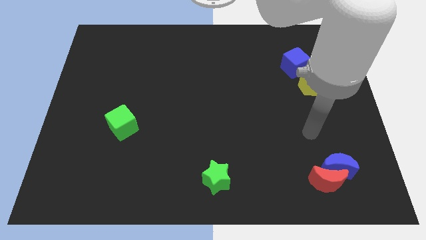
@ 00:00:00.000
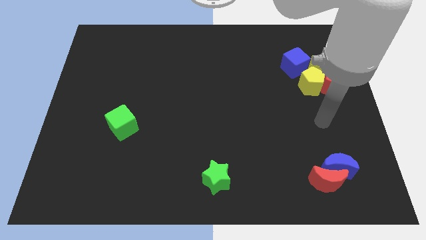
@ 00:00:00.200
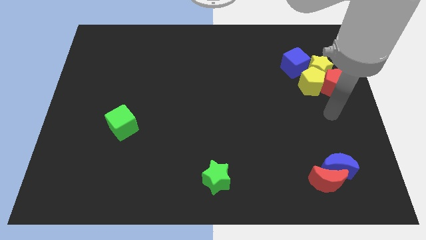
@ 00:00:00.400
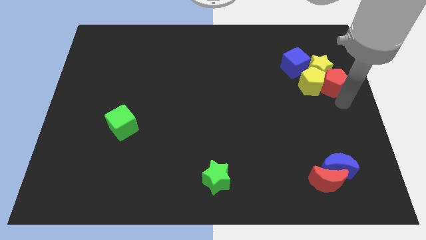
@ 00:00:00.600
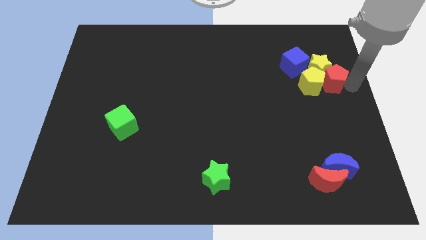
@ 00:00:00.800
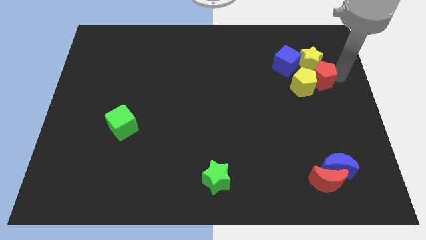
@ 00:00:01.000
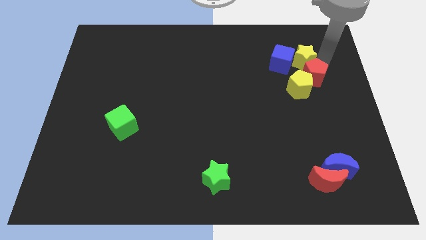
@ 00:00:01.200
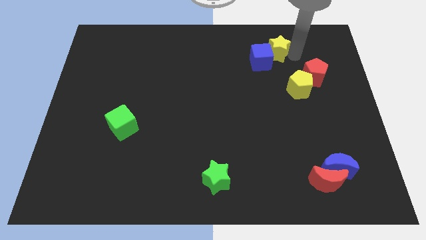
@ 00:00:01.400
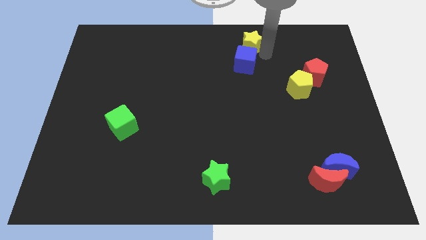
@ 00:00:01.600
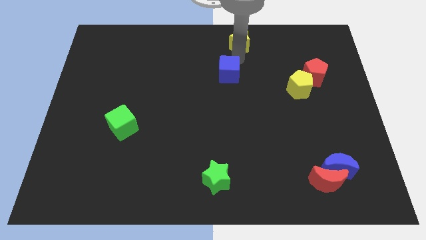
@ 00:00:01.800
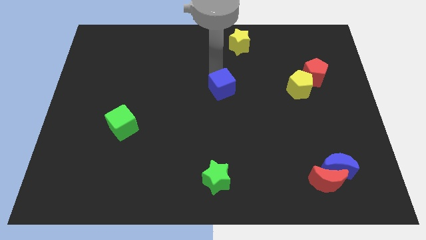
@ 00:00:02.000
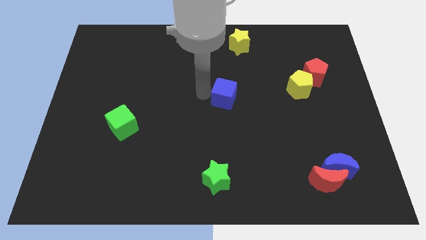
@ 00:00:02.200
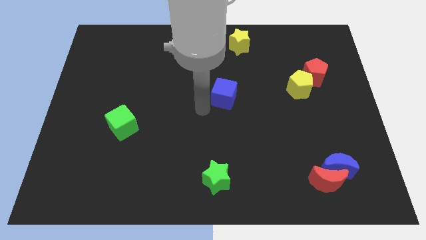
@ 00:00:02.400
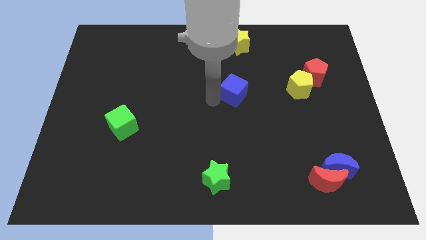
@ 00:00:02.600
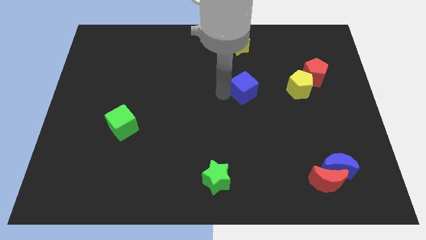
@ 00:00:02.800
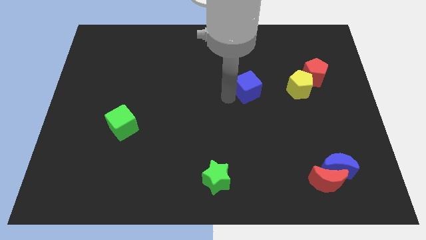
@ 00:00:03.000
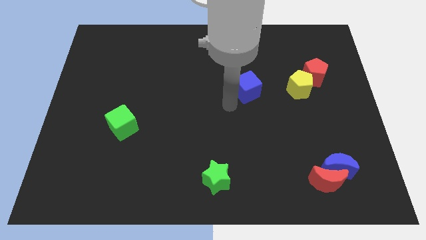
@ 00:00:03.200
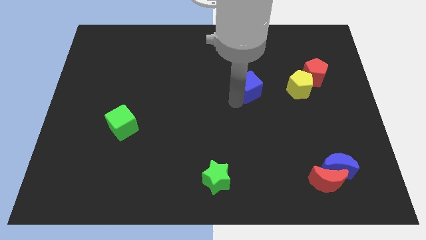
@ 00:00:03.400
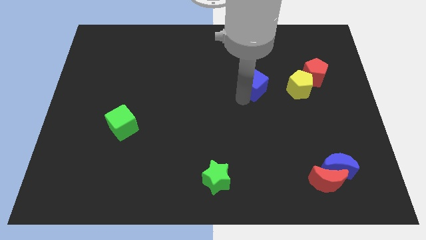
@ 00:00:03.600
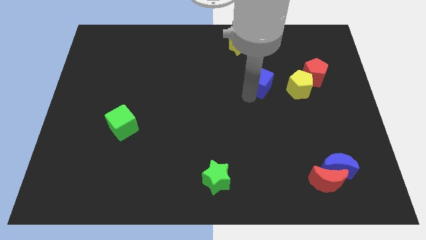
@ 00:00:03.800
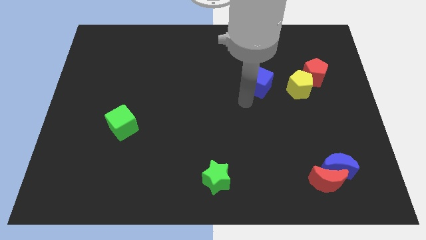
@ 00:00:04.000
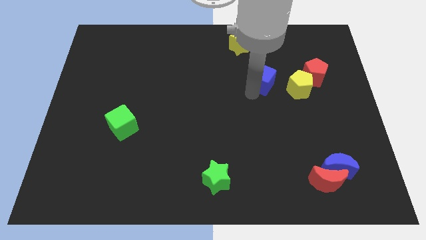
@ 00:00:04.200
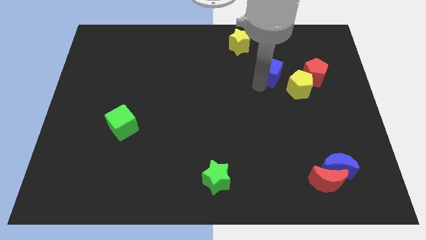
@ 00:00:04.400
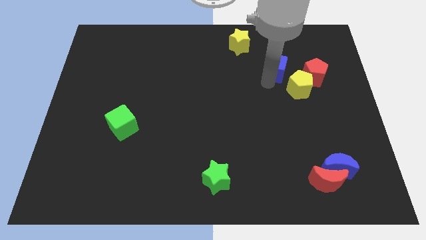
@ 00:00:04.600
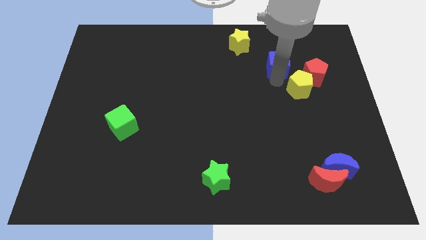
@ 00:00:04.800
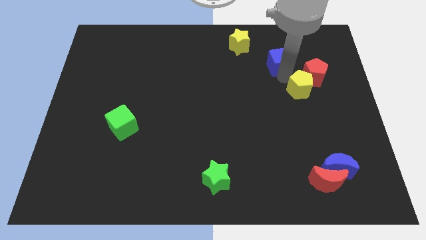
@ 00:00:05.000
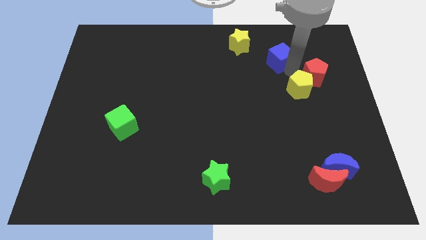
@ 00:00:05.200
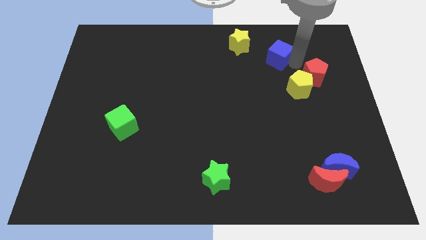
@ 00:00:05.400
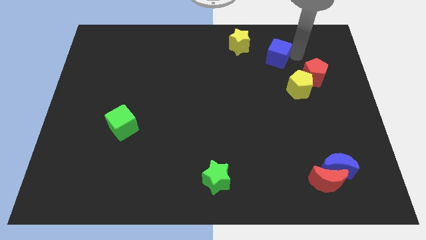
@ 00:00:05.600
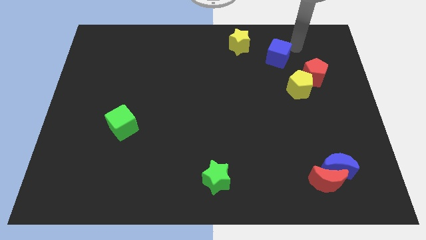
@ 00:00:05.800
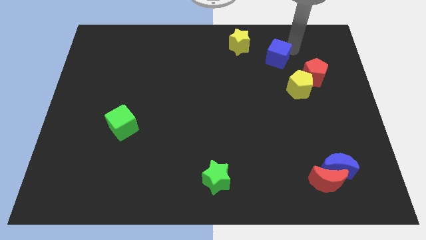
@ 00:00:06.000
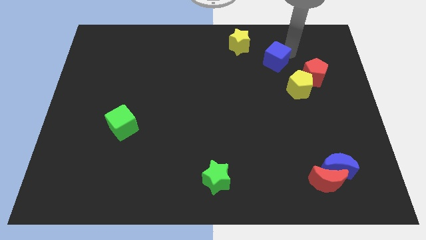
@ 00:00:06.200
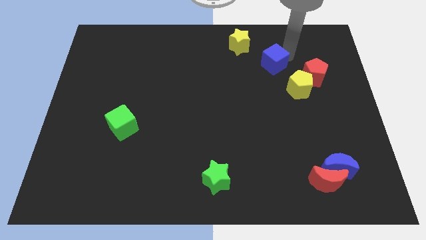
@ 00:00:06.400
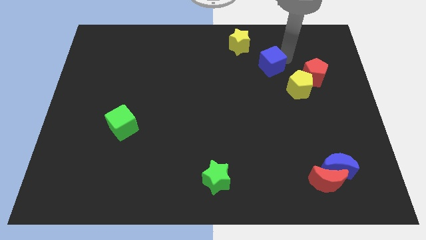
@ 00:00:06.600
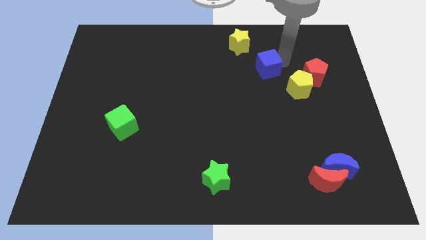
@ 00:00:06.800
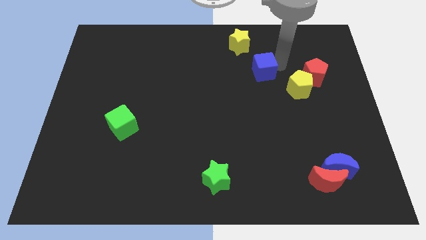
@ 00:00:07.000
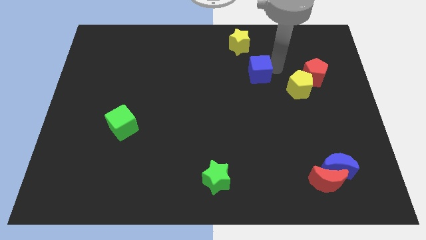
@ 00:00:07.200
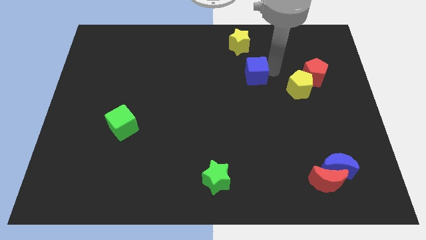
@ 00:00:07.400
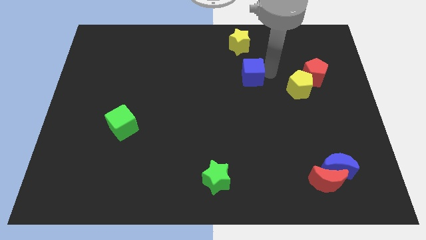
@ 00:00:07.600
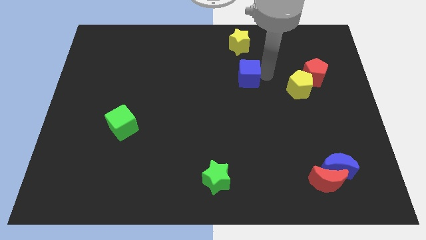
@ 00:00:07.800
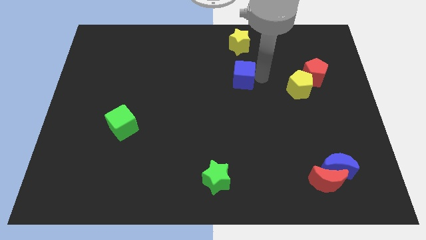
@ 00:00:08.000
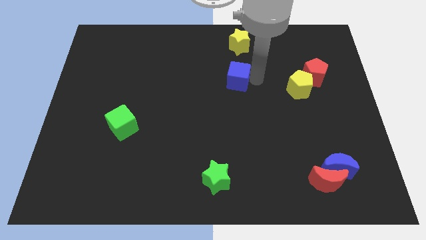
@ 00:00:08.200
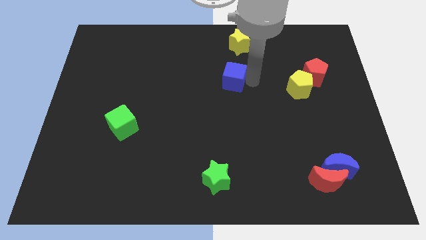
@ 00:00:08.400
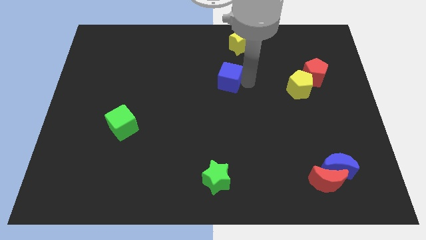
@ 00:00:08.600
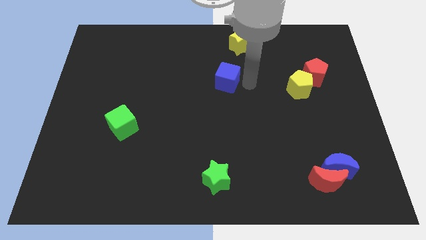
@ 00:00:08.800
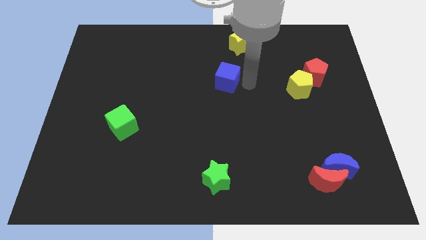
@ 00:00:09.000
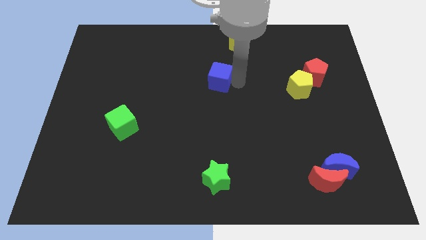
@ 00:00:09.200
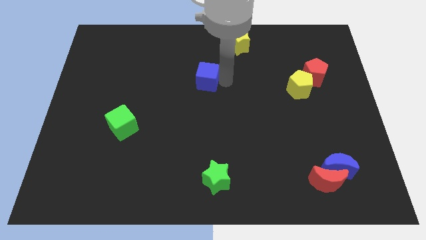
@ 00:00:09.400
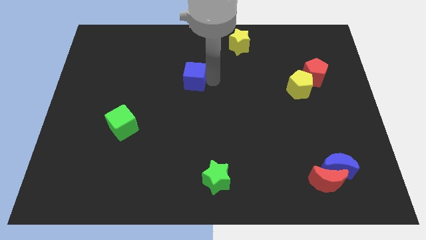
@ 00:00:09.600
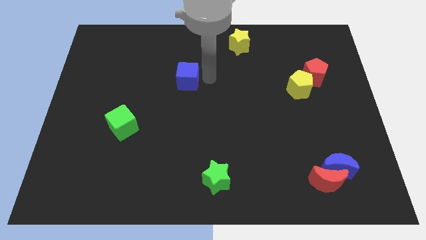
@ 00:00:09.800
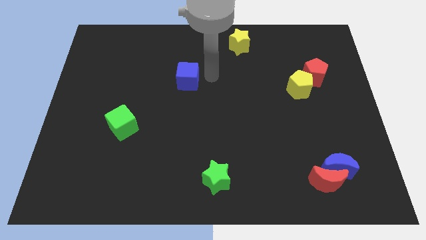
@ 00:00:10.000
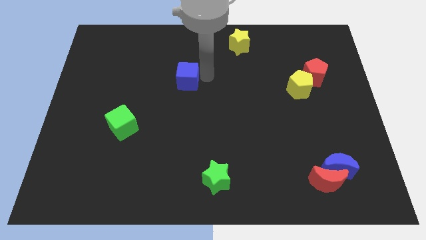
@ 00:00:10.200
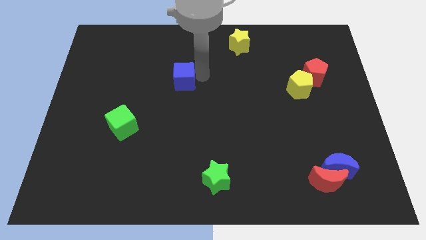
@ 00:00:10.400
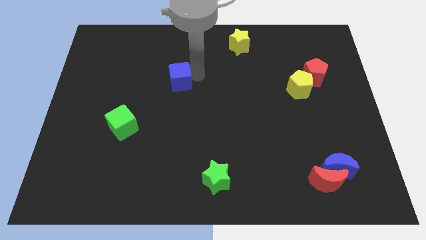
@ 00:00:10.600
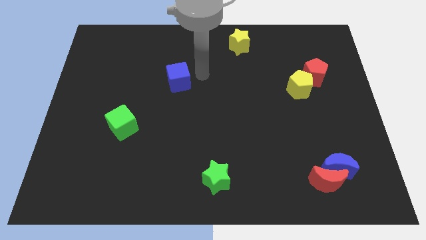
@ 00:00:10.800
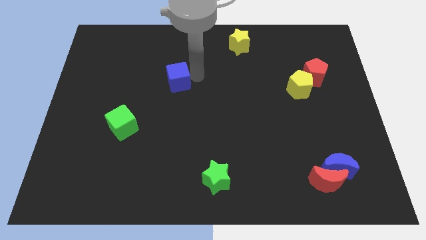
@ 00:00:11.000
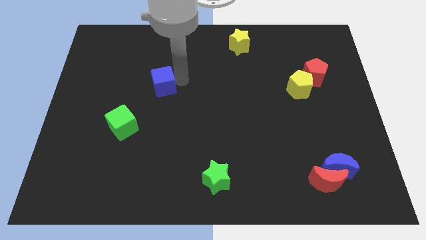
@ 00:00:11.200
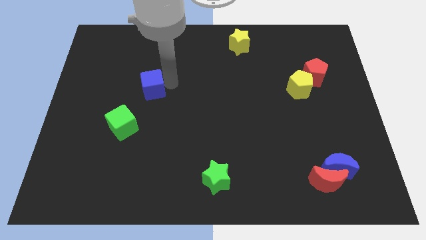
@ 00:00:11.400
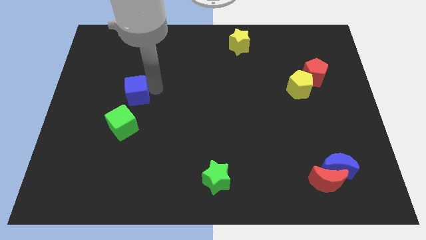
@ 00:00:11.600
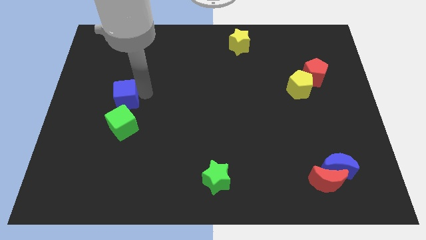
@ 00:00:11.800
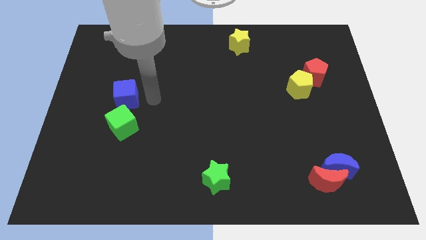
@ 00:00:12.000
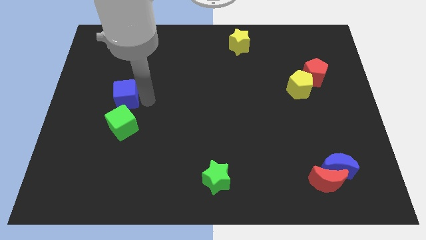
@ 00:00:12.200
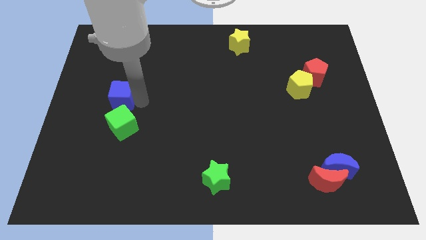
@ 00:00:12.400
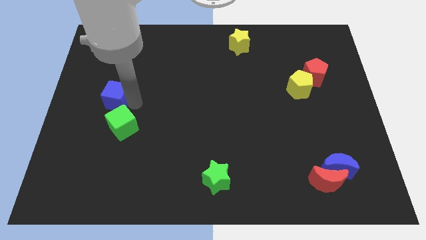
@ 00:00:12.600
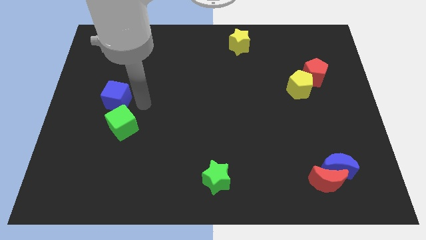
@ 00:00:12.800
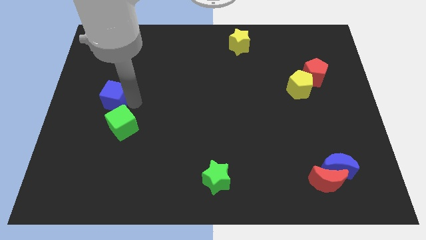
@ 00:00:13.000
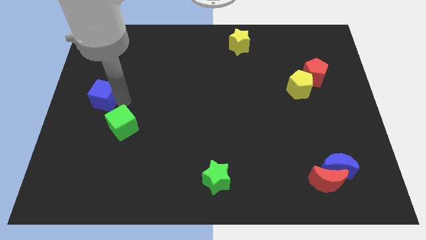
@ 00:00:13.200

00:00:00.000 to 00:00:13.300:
slide the blue cube to the left side of the board
